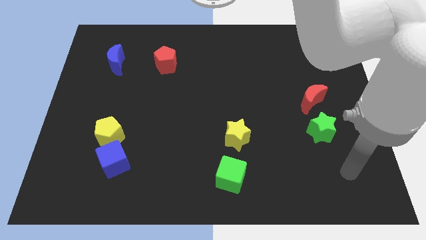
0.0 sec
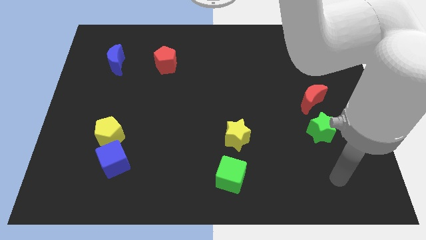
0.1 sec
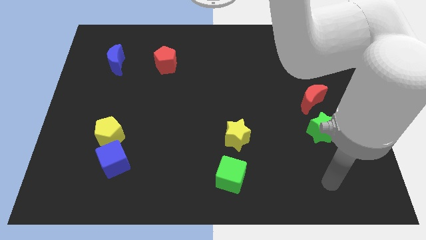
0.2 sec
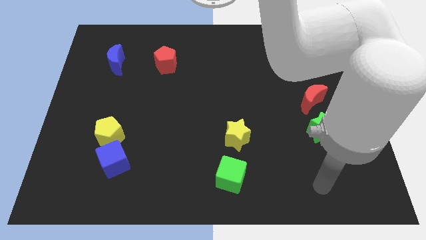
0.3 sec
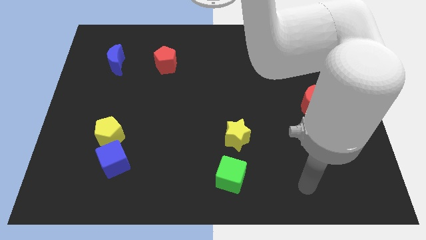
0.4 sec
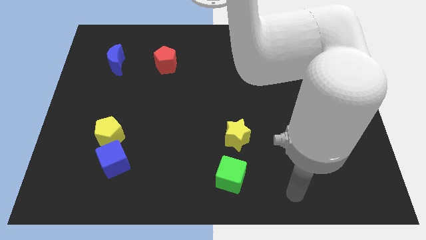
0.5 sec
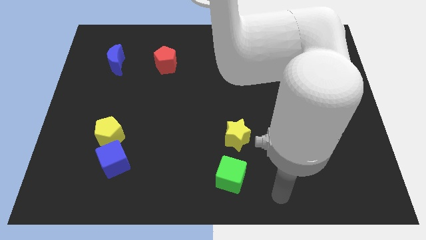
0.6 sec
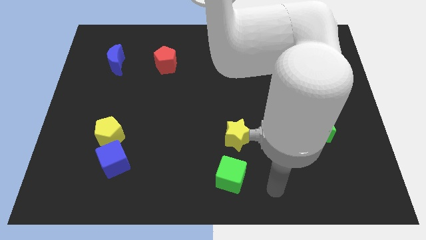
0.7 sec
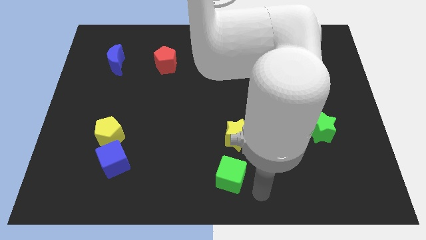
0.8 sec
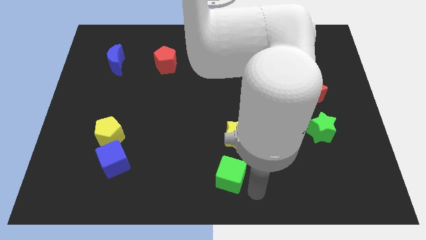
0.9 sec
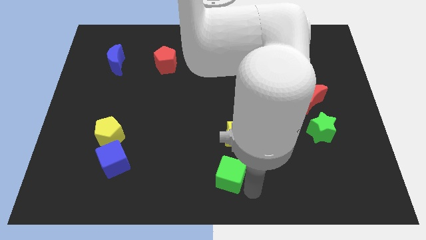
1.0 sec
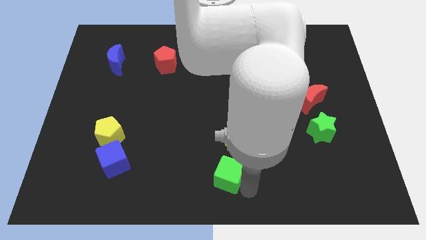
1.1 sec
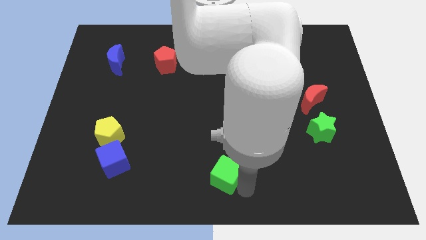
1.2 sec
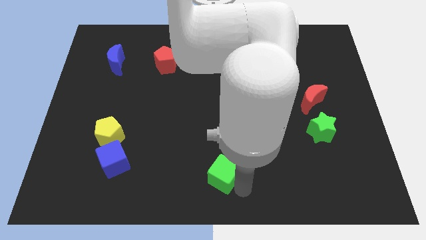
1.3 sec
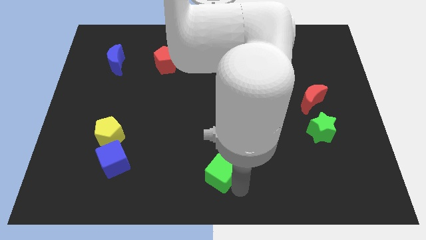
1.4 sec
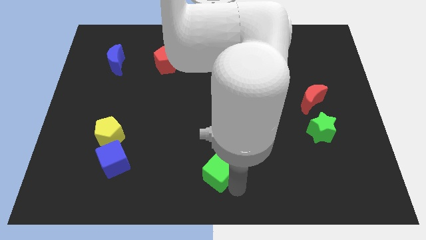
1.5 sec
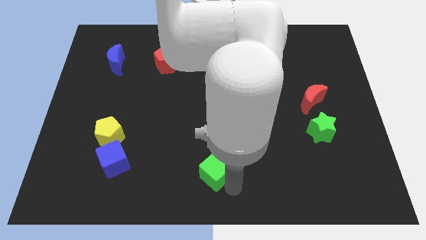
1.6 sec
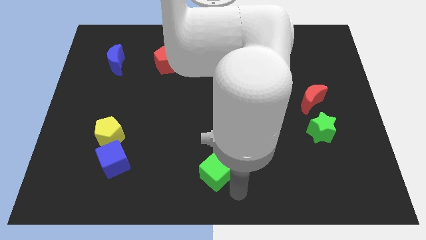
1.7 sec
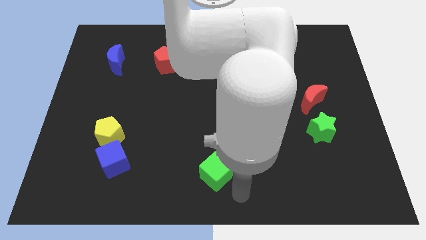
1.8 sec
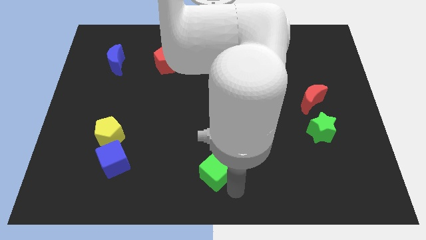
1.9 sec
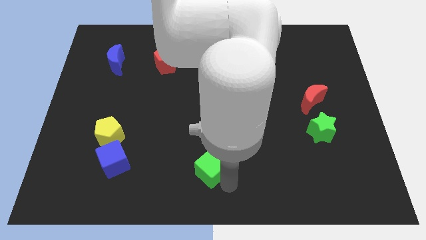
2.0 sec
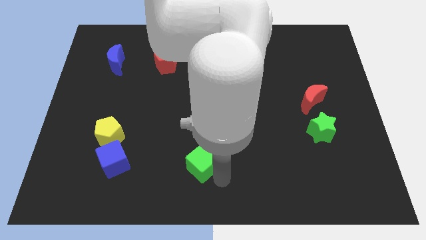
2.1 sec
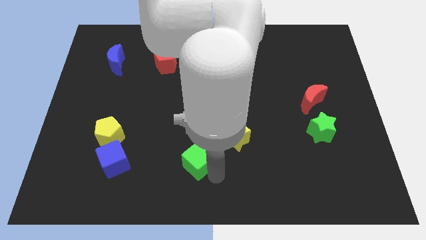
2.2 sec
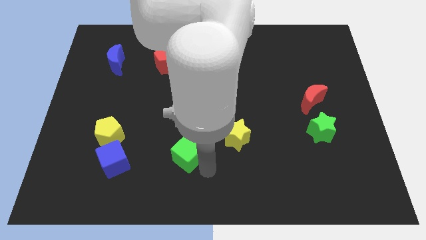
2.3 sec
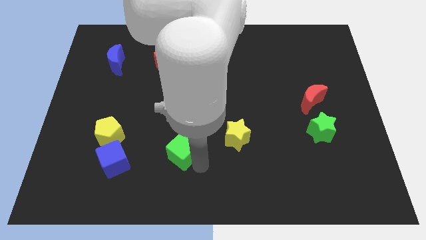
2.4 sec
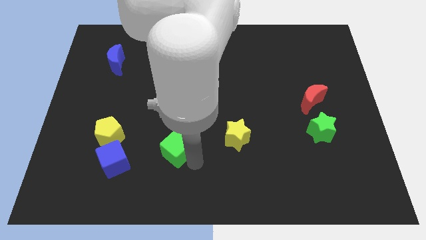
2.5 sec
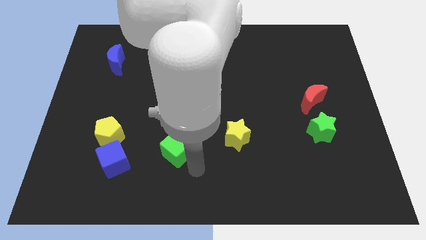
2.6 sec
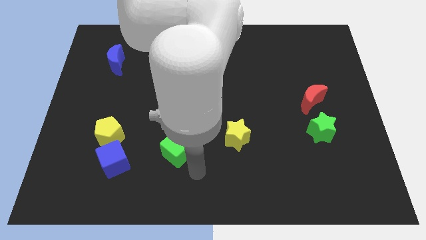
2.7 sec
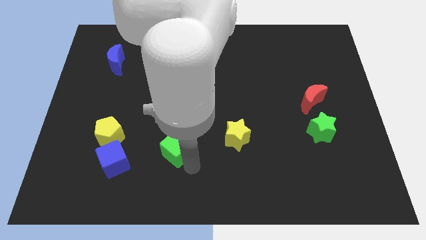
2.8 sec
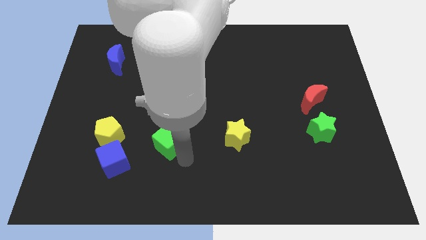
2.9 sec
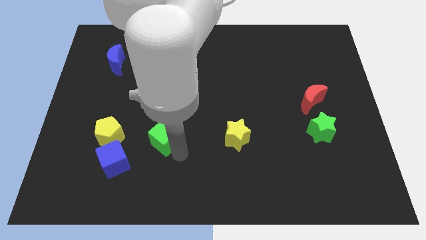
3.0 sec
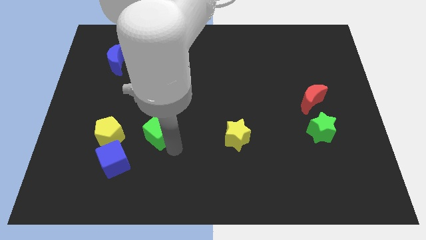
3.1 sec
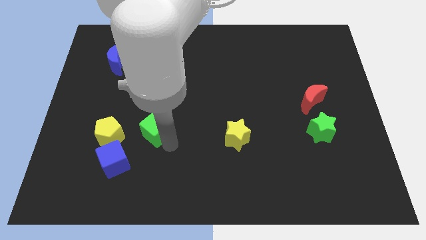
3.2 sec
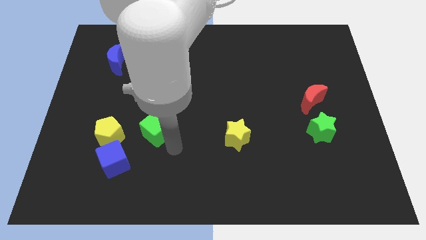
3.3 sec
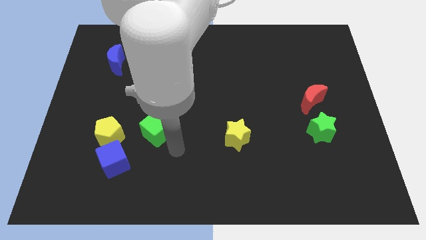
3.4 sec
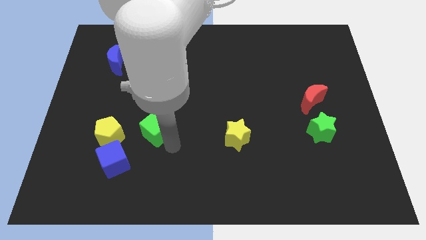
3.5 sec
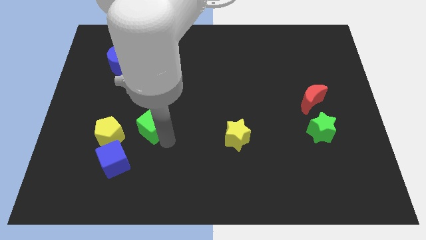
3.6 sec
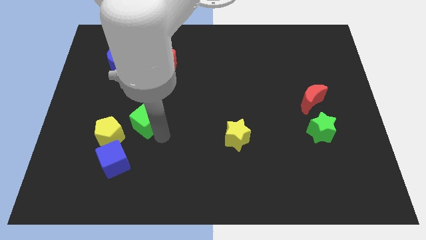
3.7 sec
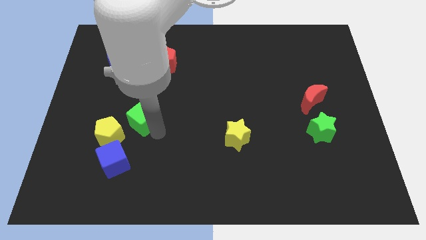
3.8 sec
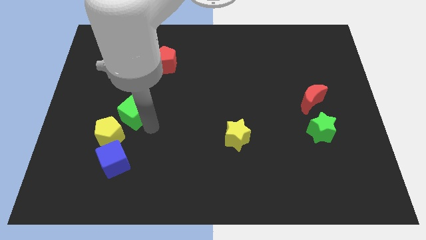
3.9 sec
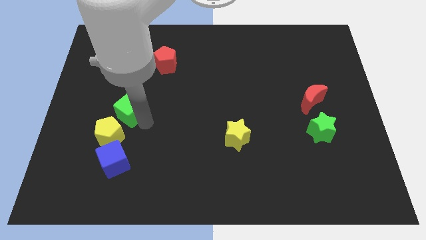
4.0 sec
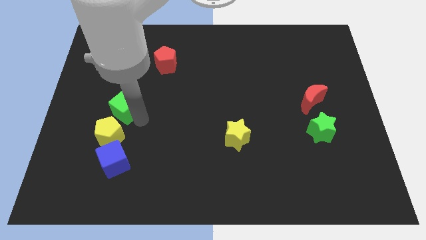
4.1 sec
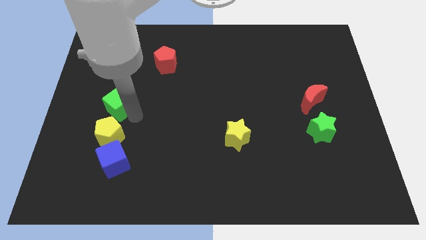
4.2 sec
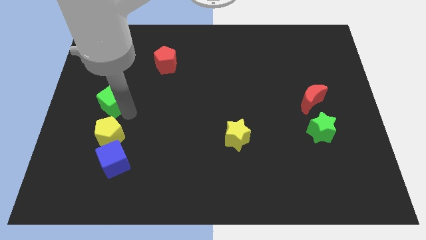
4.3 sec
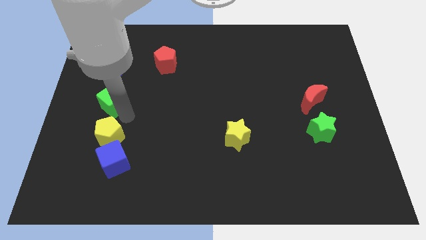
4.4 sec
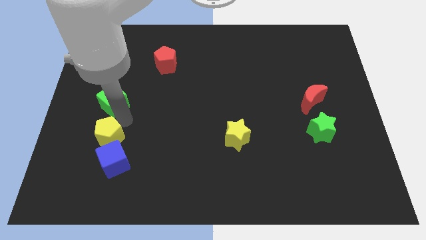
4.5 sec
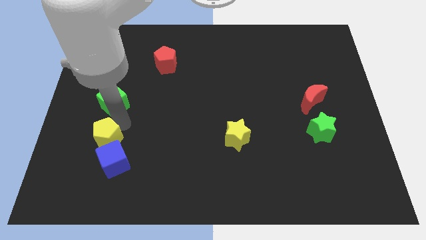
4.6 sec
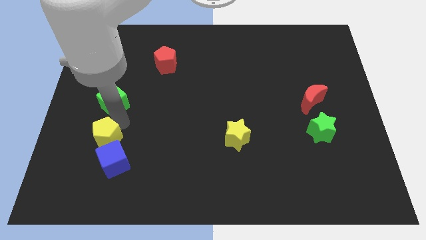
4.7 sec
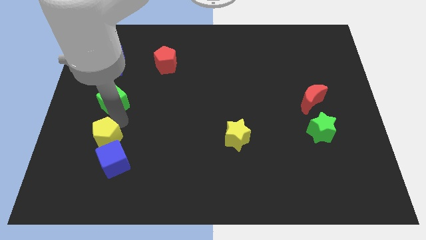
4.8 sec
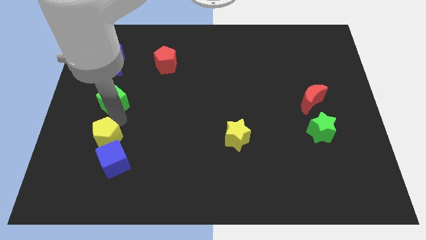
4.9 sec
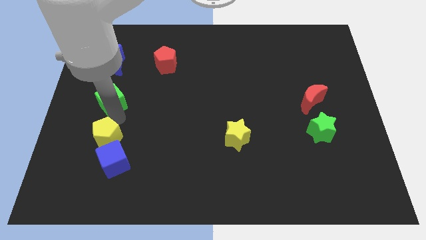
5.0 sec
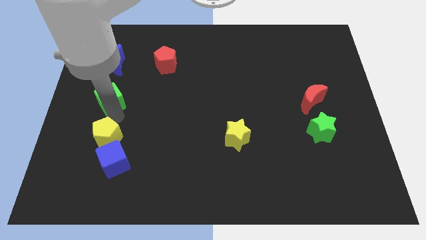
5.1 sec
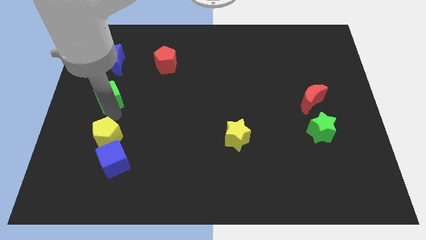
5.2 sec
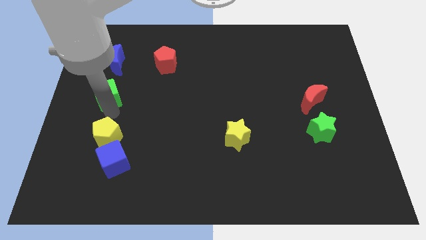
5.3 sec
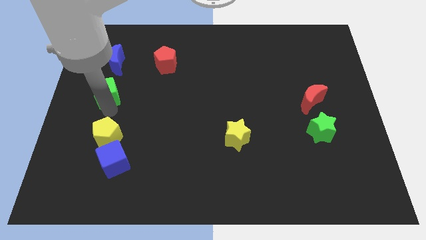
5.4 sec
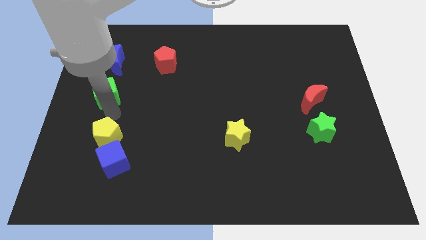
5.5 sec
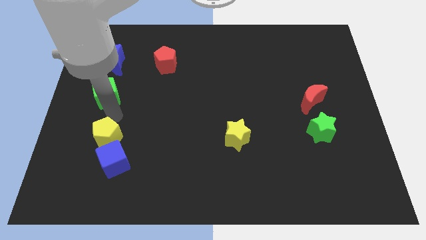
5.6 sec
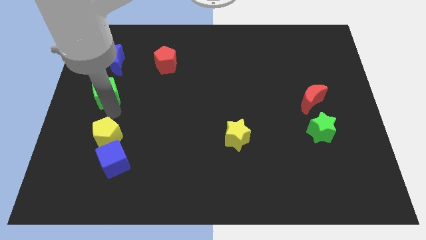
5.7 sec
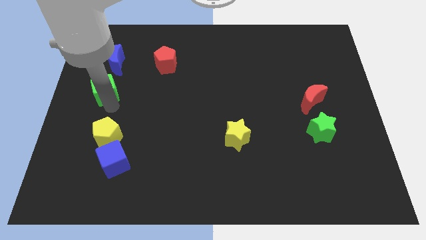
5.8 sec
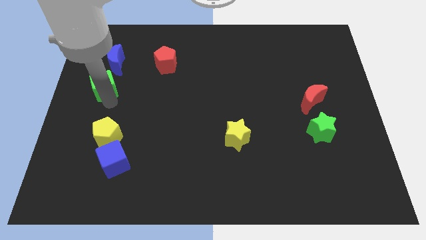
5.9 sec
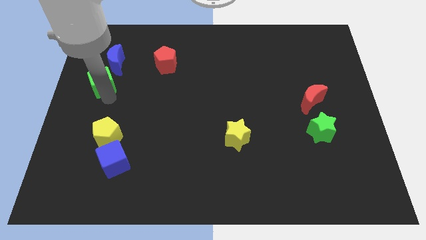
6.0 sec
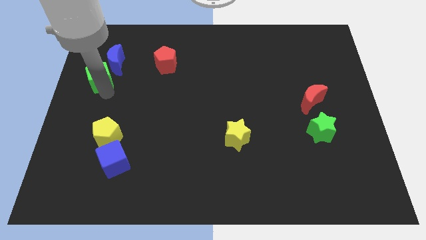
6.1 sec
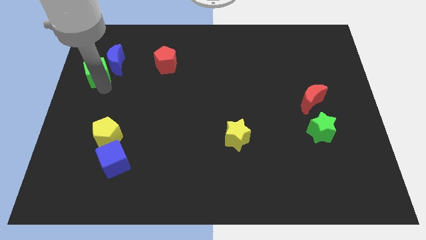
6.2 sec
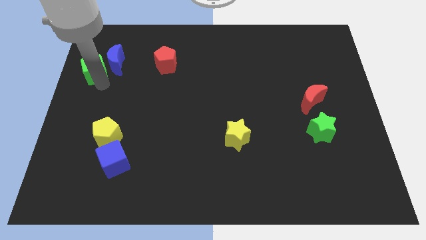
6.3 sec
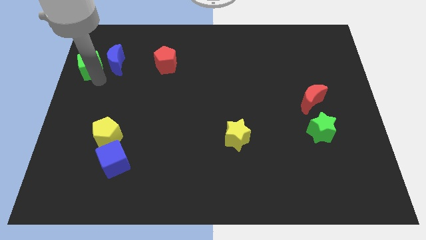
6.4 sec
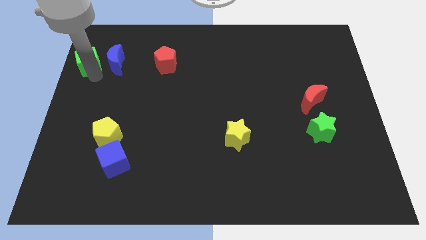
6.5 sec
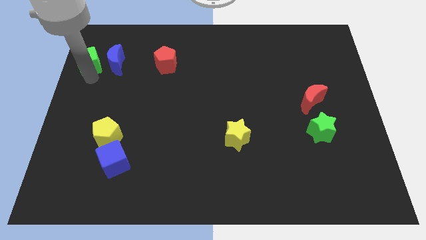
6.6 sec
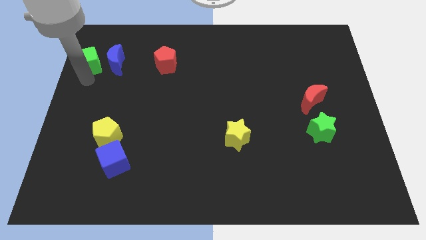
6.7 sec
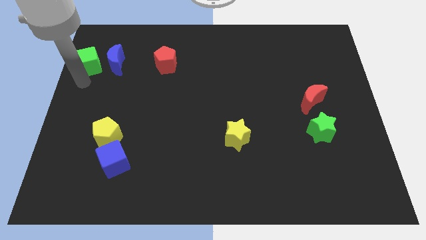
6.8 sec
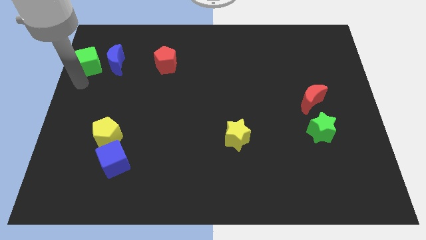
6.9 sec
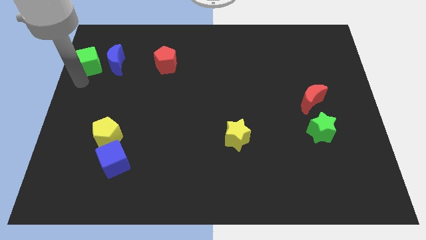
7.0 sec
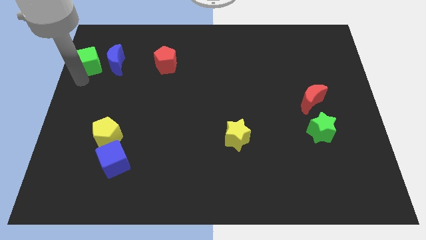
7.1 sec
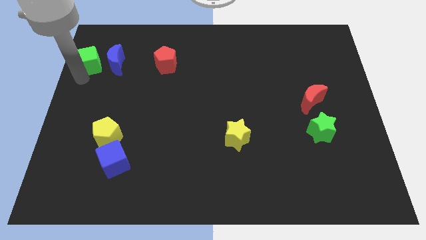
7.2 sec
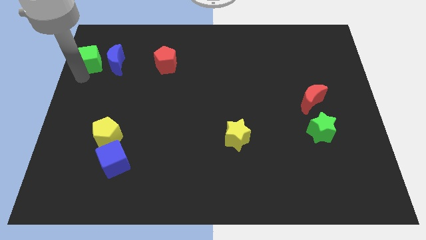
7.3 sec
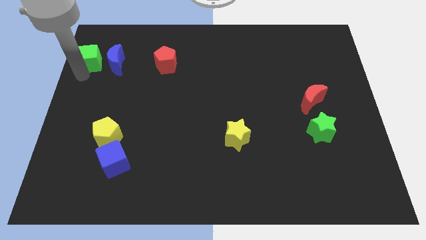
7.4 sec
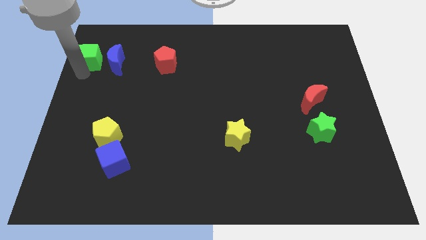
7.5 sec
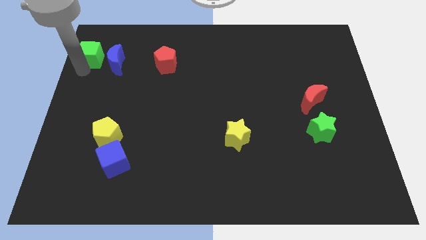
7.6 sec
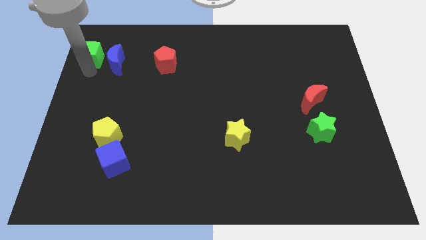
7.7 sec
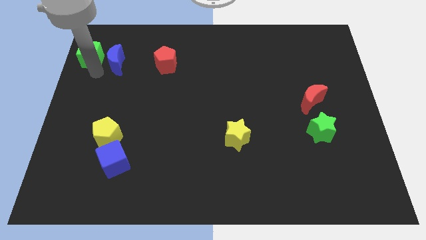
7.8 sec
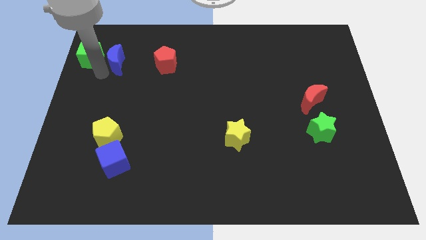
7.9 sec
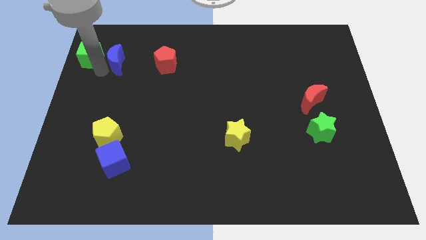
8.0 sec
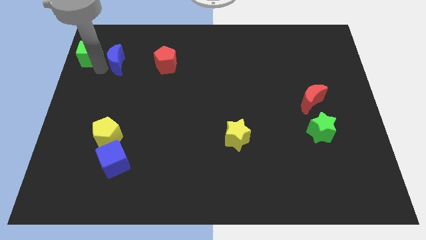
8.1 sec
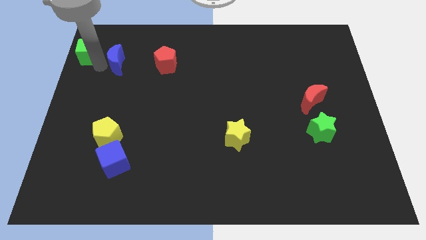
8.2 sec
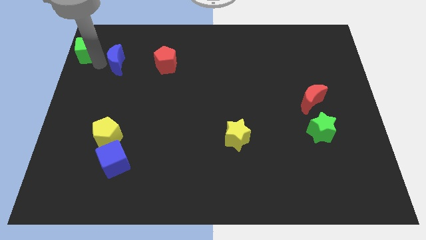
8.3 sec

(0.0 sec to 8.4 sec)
move the green cube to the top left corner

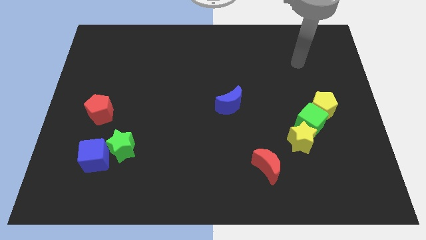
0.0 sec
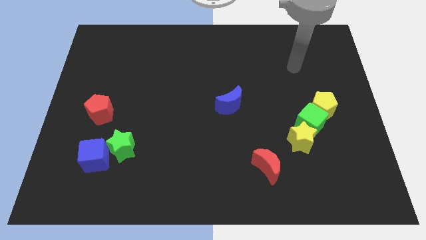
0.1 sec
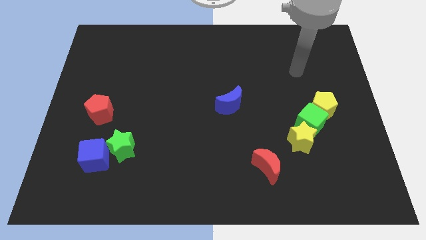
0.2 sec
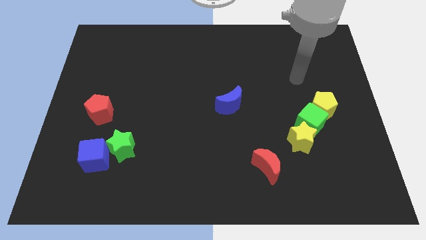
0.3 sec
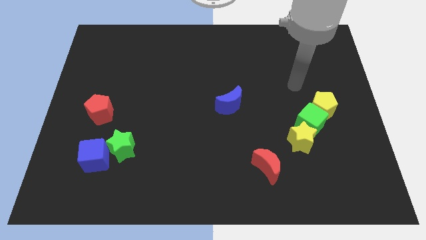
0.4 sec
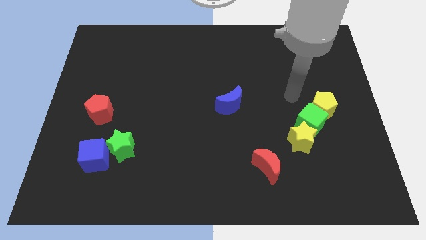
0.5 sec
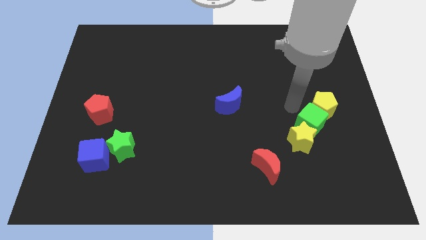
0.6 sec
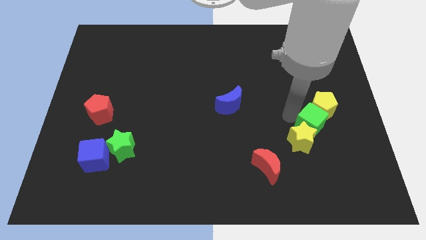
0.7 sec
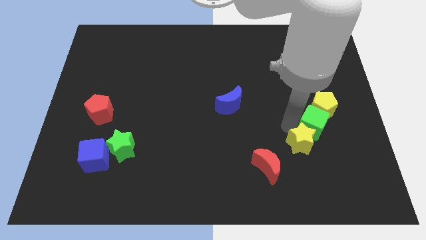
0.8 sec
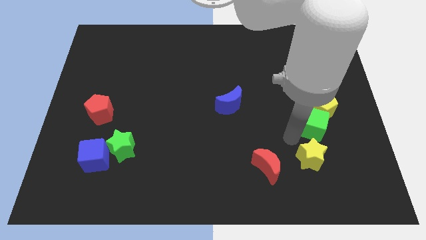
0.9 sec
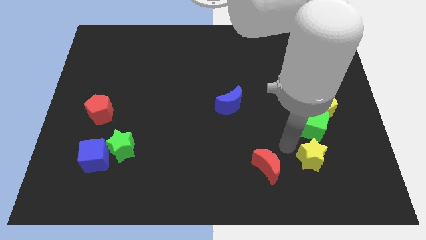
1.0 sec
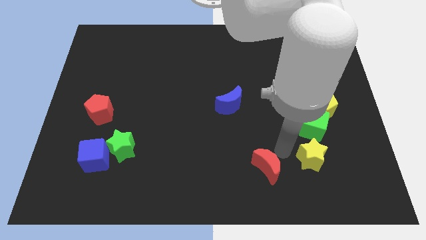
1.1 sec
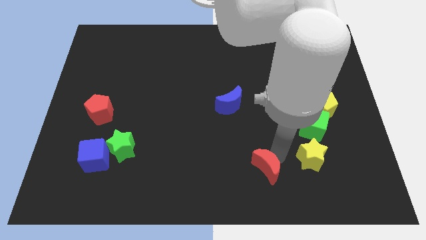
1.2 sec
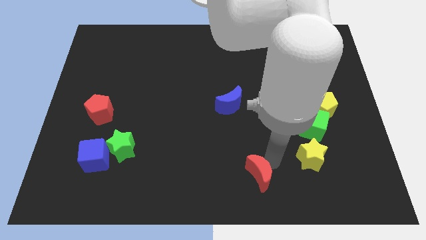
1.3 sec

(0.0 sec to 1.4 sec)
push the red moon to the bottom
